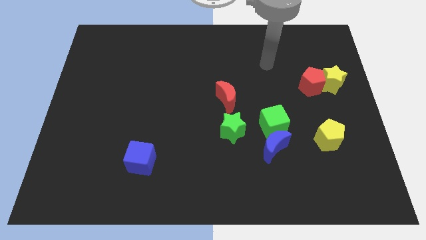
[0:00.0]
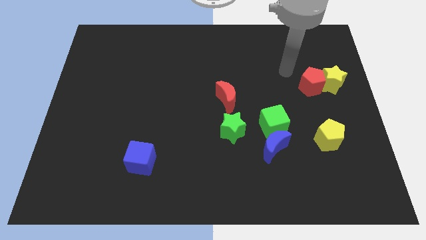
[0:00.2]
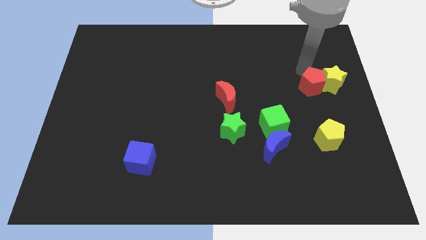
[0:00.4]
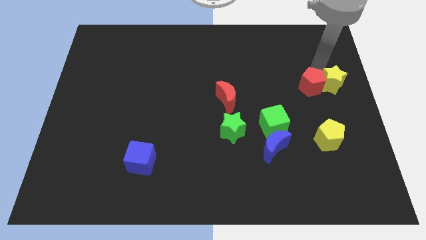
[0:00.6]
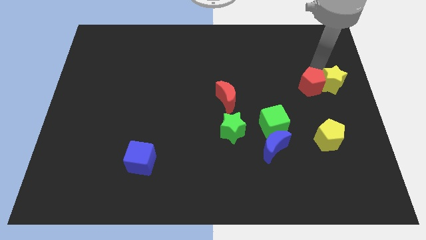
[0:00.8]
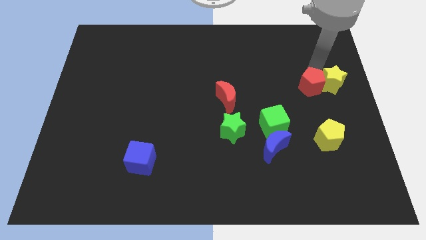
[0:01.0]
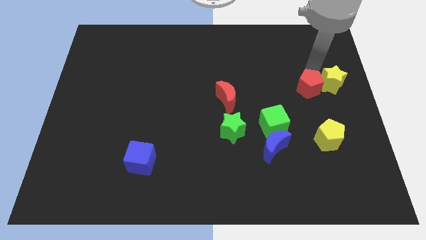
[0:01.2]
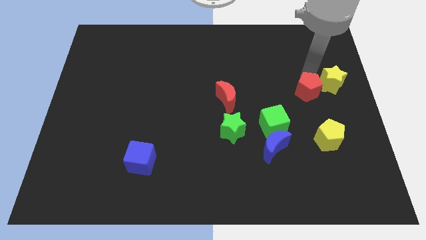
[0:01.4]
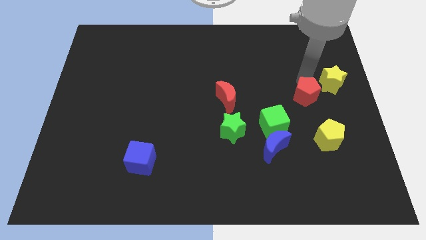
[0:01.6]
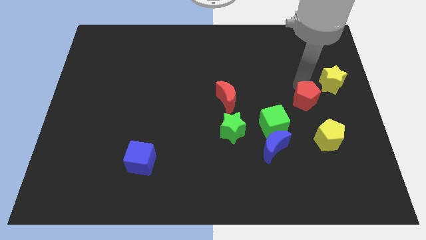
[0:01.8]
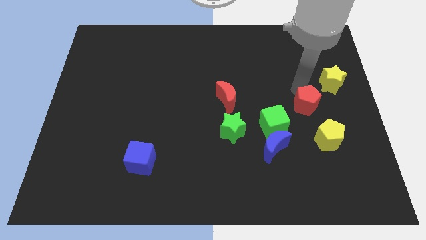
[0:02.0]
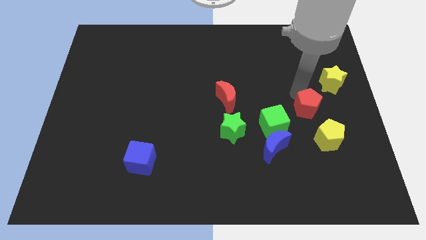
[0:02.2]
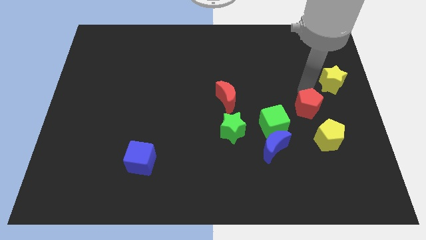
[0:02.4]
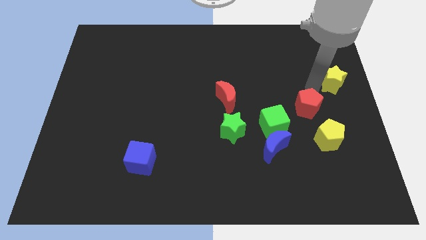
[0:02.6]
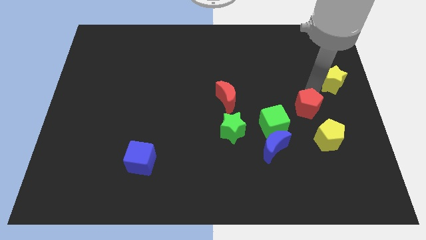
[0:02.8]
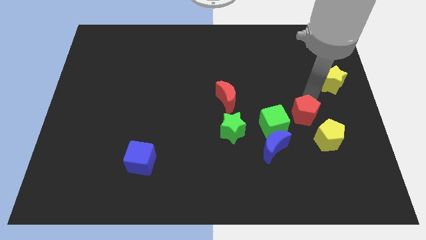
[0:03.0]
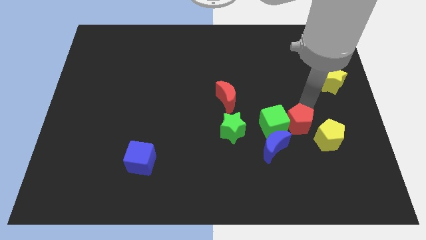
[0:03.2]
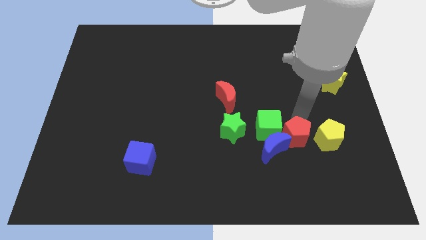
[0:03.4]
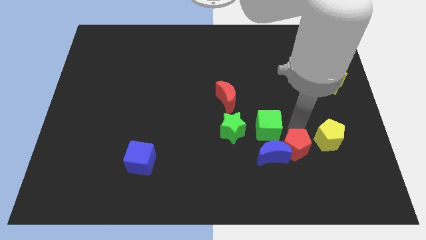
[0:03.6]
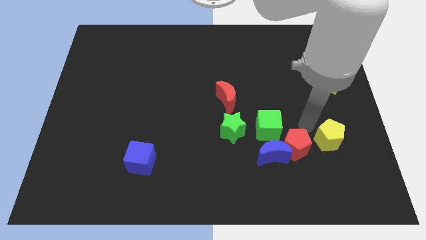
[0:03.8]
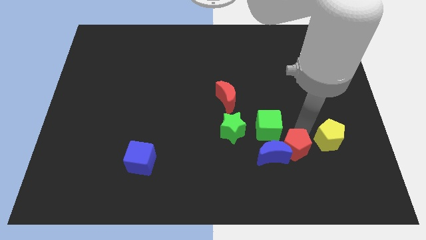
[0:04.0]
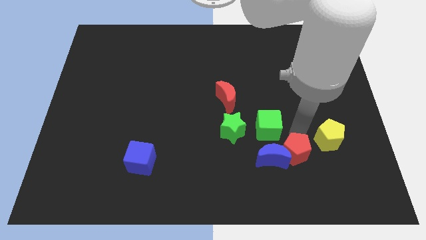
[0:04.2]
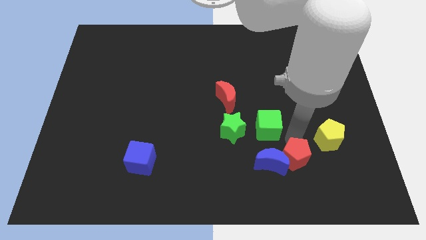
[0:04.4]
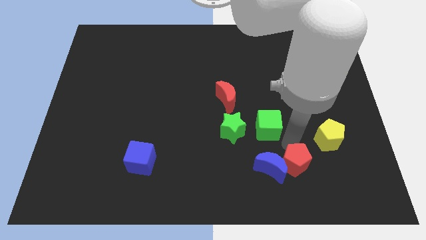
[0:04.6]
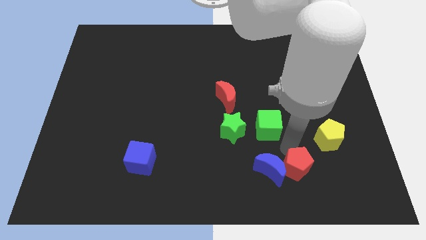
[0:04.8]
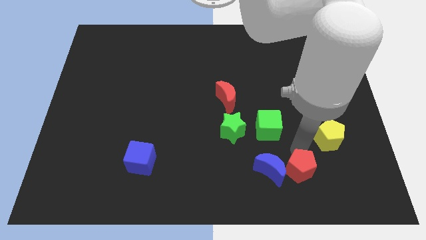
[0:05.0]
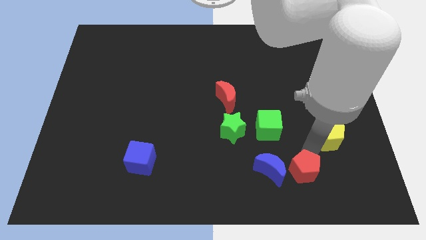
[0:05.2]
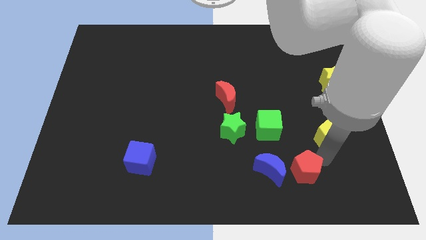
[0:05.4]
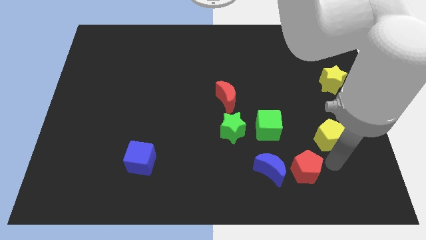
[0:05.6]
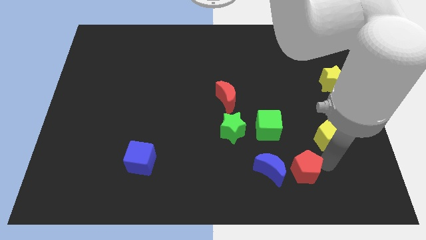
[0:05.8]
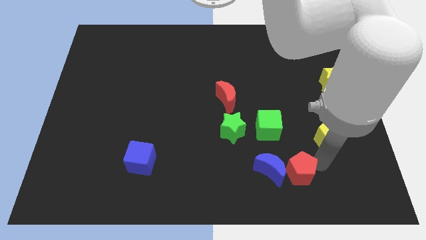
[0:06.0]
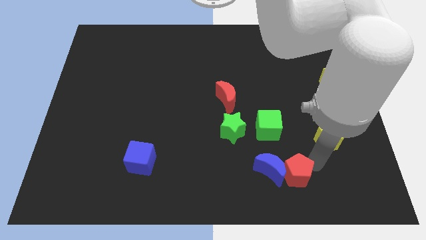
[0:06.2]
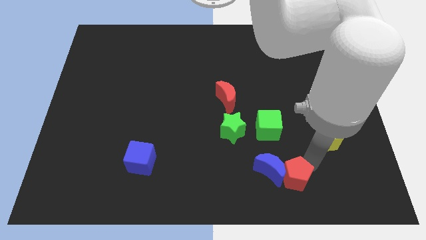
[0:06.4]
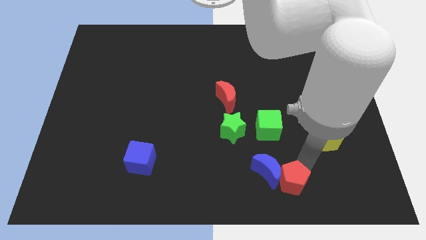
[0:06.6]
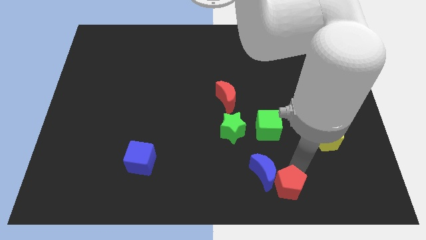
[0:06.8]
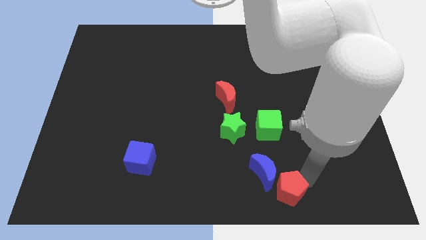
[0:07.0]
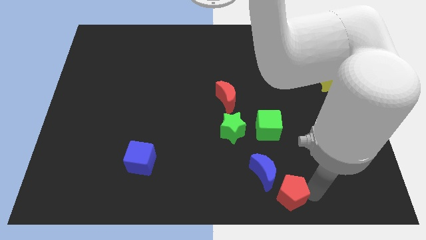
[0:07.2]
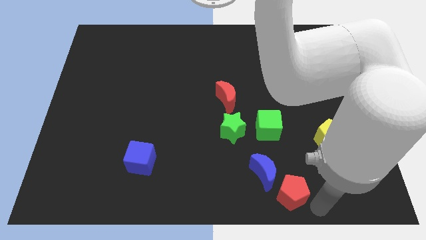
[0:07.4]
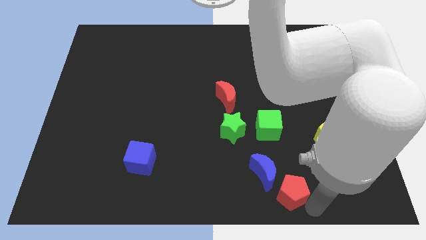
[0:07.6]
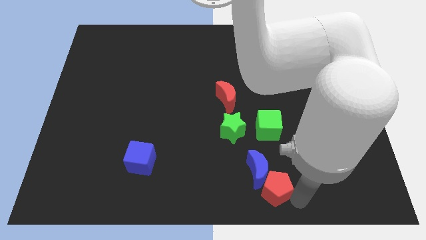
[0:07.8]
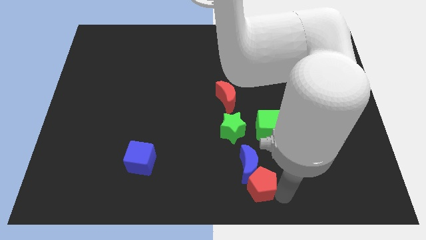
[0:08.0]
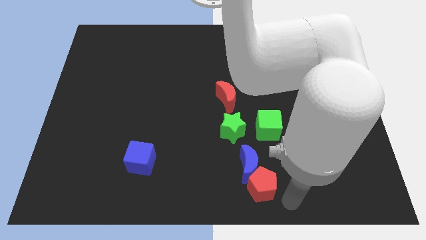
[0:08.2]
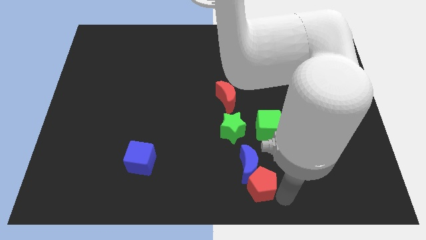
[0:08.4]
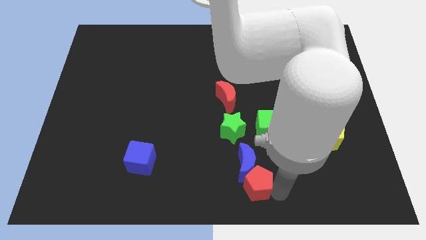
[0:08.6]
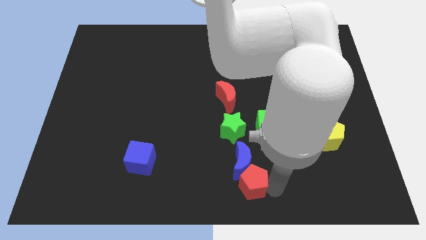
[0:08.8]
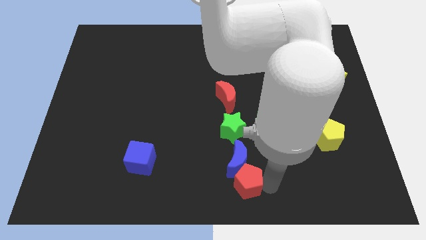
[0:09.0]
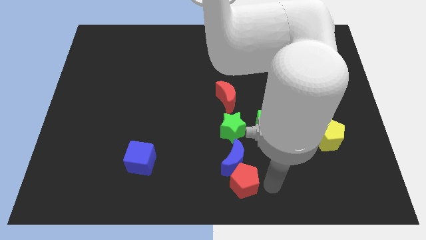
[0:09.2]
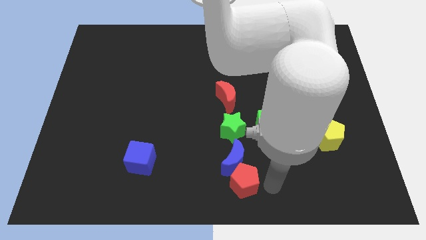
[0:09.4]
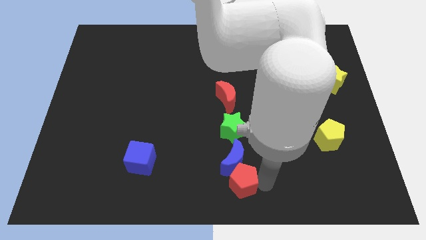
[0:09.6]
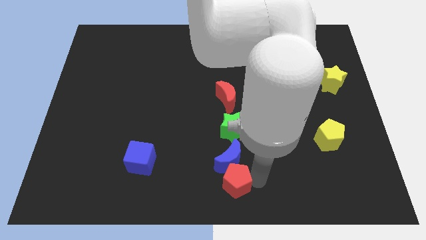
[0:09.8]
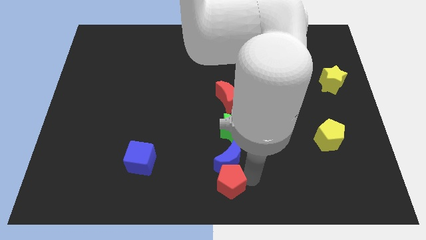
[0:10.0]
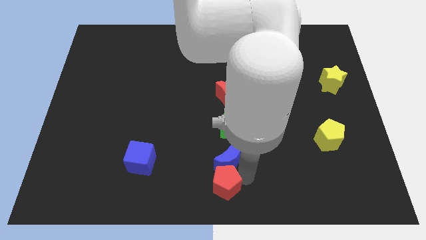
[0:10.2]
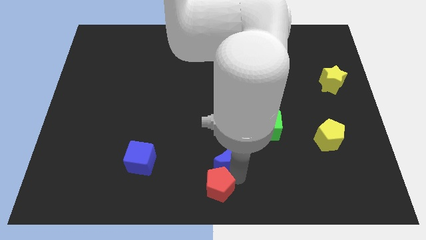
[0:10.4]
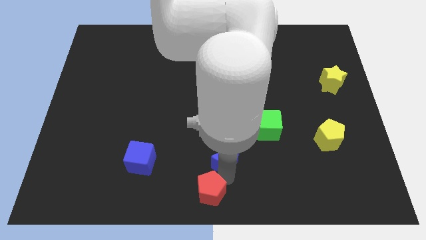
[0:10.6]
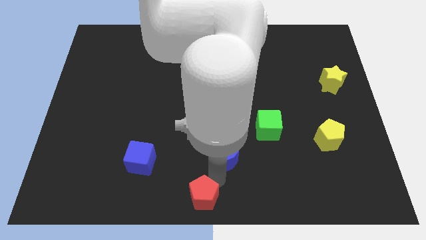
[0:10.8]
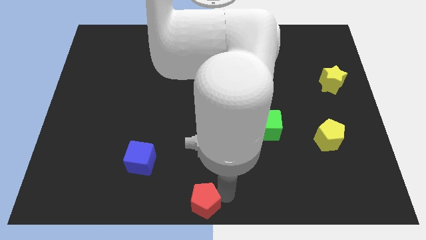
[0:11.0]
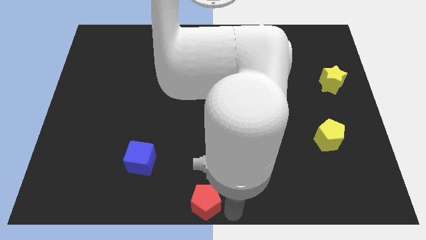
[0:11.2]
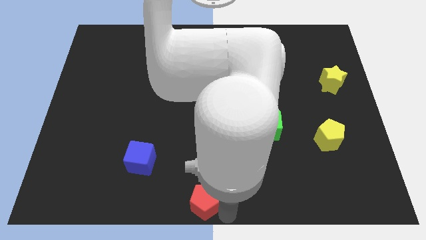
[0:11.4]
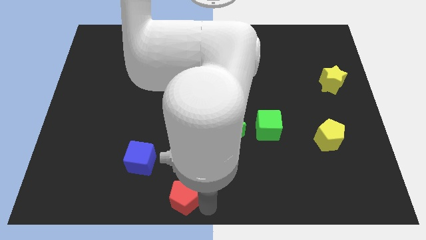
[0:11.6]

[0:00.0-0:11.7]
slide the red pentagon to the bottom right side of the blue cube
